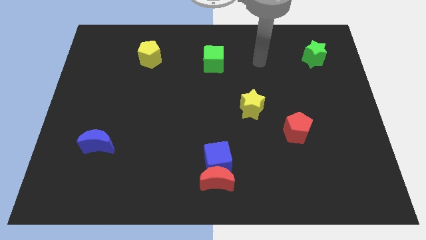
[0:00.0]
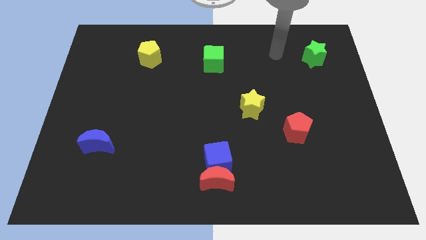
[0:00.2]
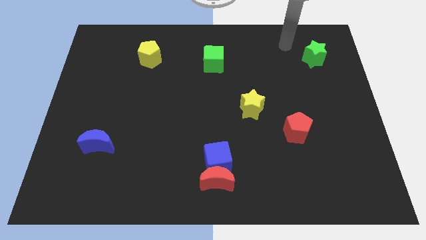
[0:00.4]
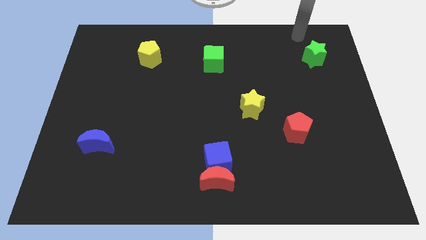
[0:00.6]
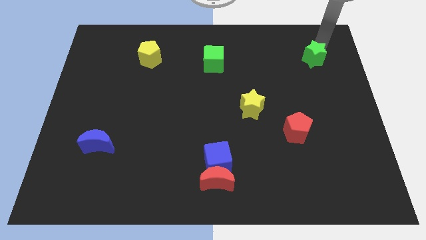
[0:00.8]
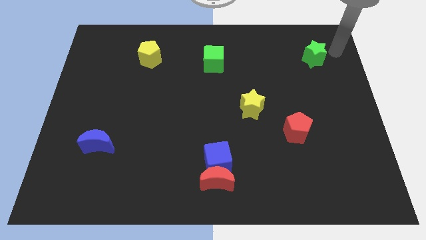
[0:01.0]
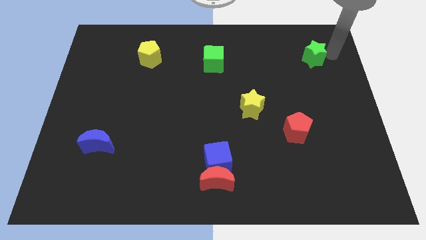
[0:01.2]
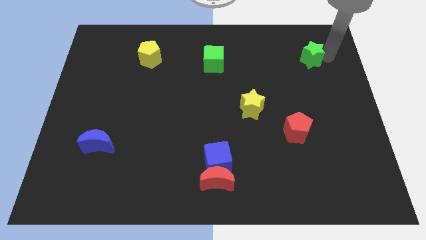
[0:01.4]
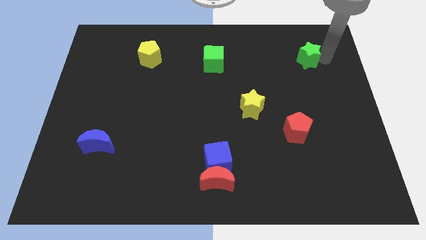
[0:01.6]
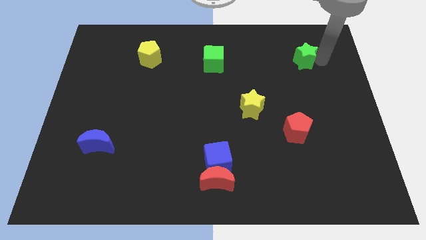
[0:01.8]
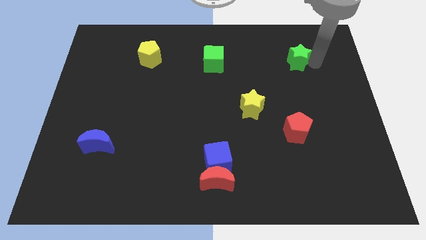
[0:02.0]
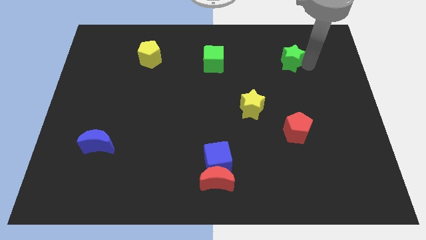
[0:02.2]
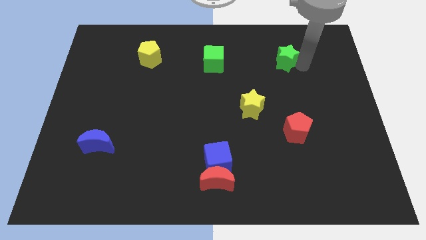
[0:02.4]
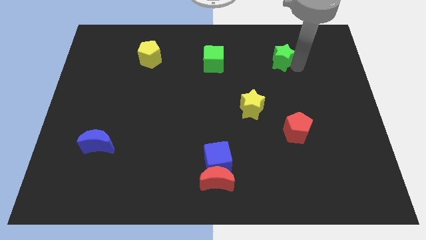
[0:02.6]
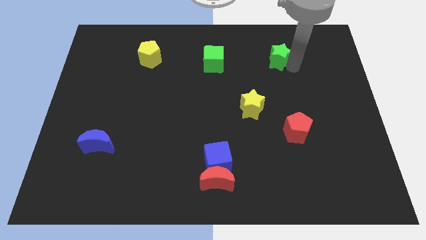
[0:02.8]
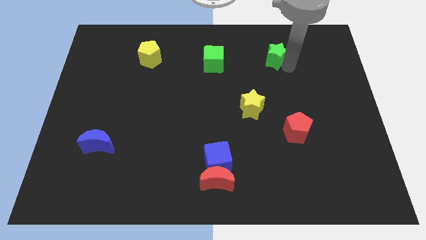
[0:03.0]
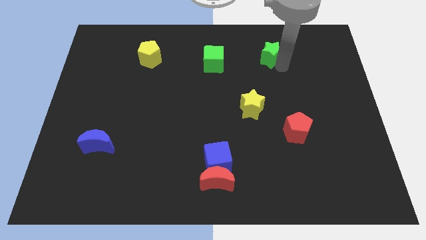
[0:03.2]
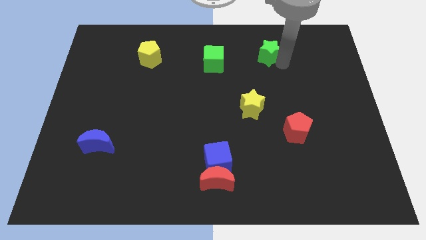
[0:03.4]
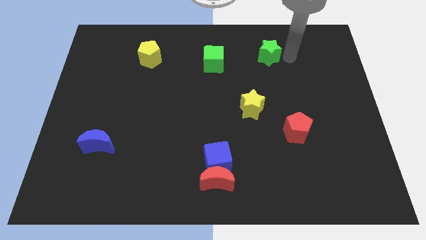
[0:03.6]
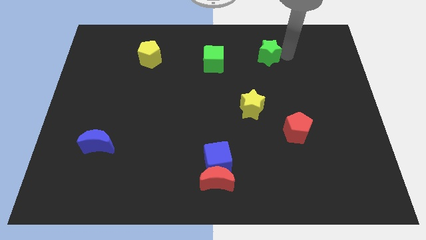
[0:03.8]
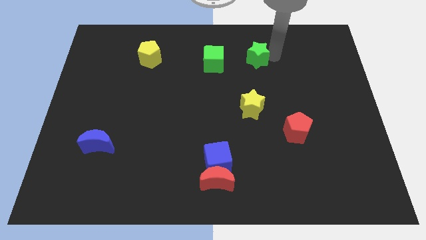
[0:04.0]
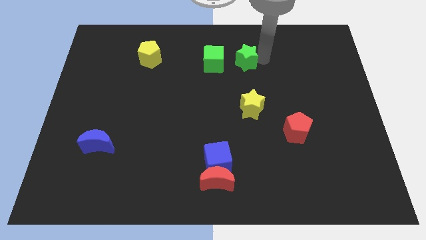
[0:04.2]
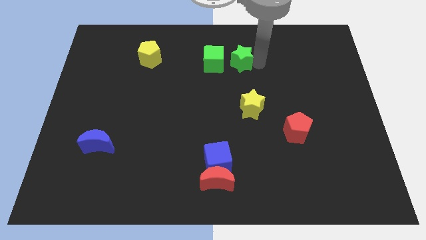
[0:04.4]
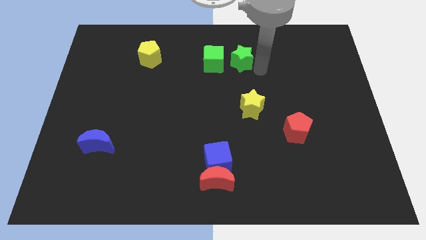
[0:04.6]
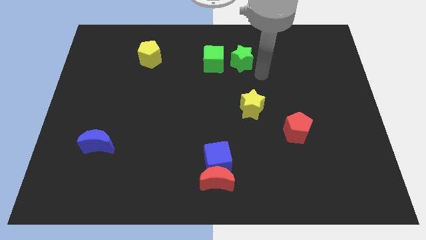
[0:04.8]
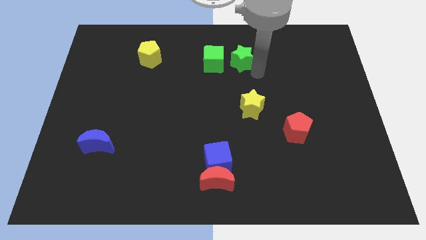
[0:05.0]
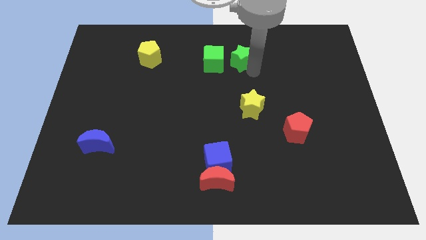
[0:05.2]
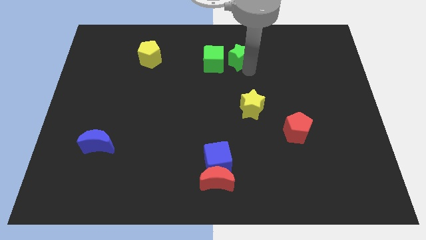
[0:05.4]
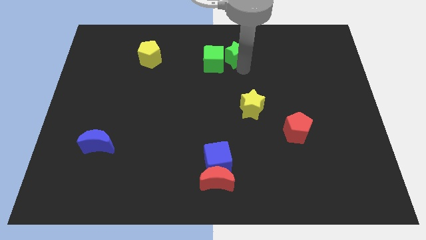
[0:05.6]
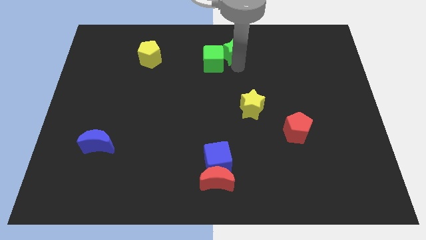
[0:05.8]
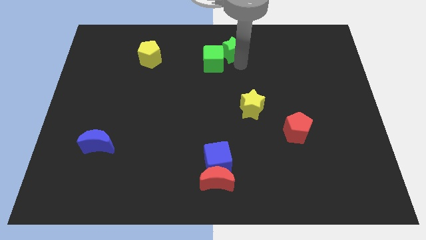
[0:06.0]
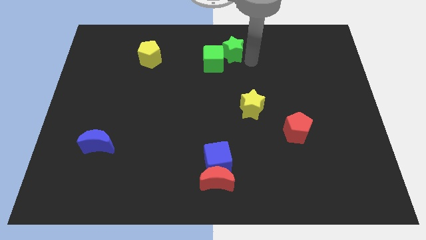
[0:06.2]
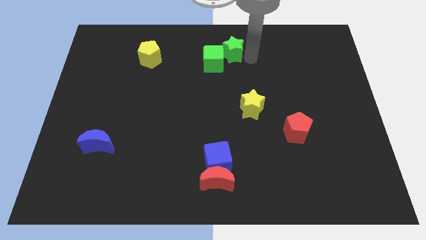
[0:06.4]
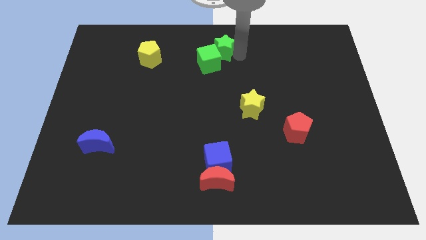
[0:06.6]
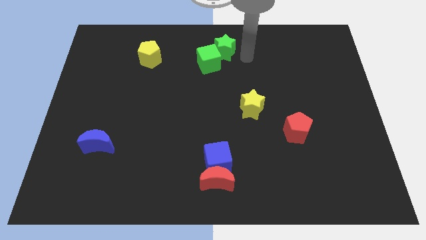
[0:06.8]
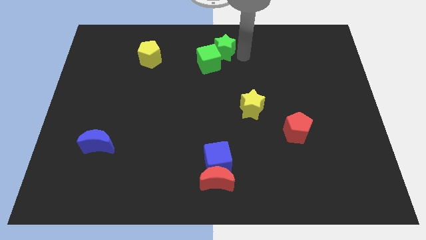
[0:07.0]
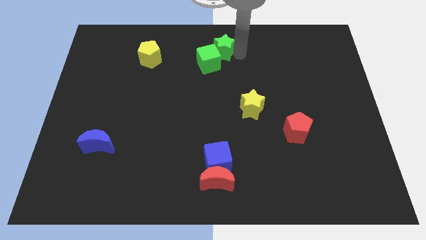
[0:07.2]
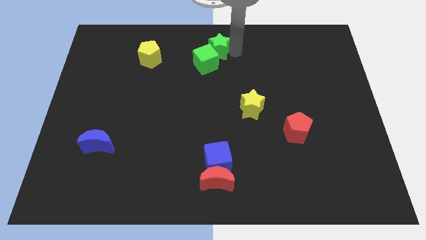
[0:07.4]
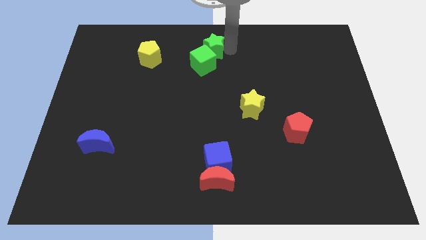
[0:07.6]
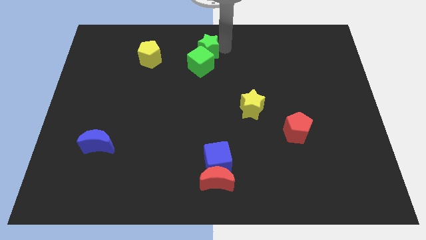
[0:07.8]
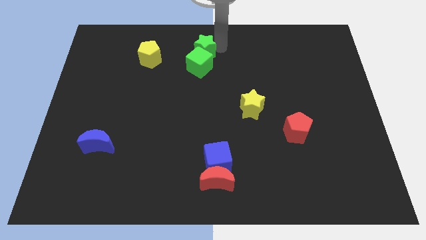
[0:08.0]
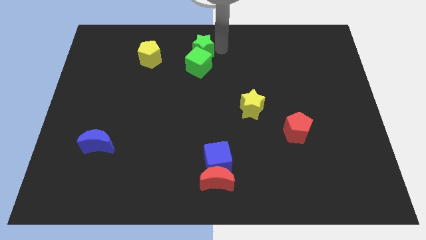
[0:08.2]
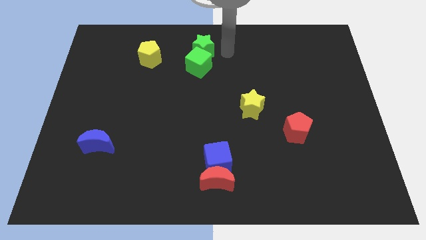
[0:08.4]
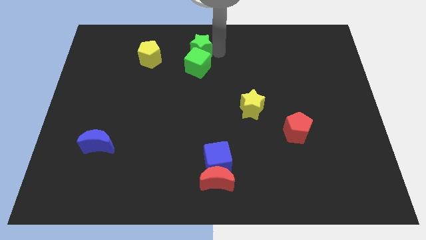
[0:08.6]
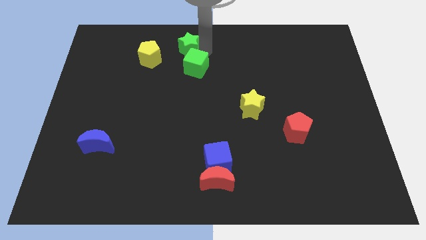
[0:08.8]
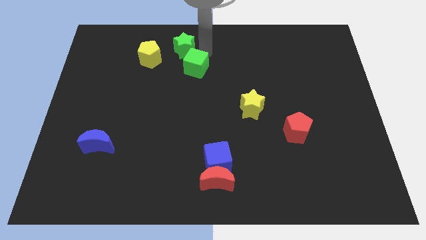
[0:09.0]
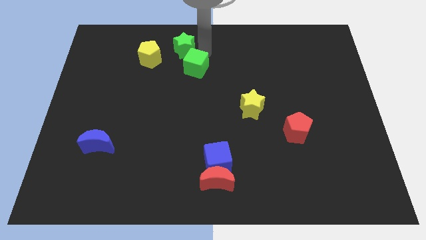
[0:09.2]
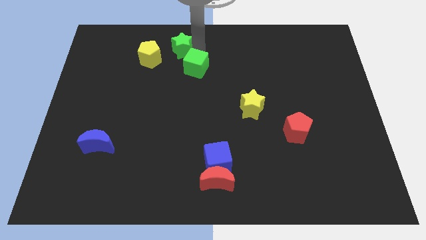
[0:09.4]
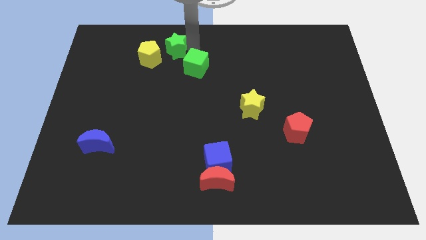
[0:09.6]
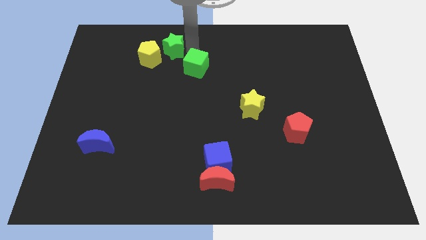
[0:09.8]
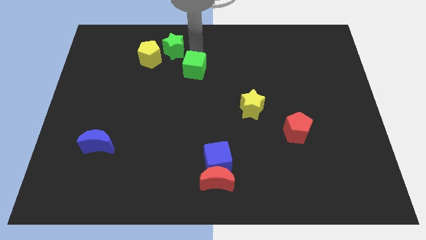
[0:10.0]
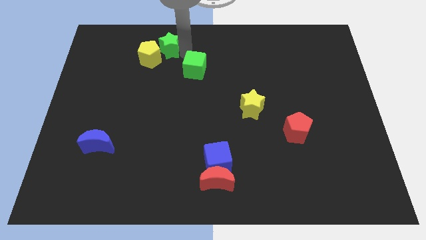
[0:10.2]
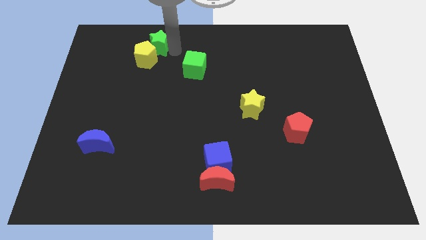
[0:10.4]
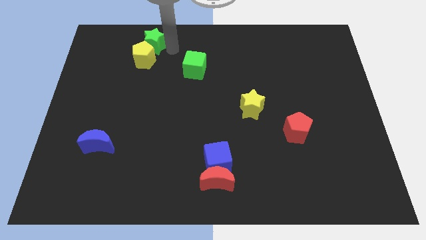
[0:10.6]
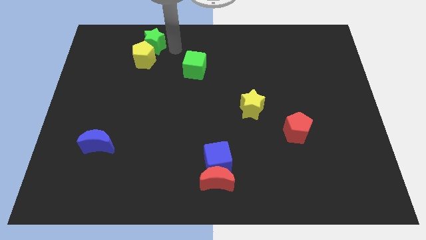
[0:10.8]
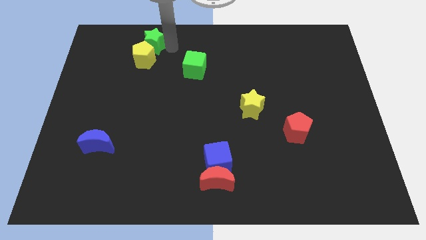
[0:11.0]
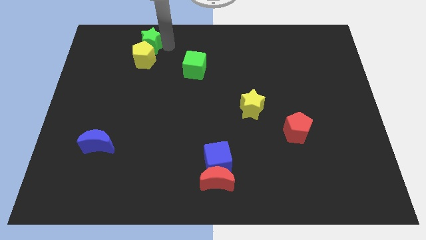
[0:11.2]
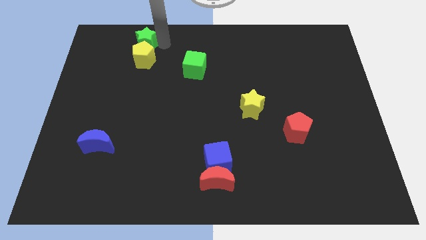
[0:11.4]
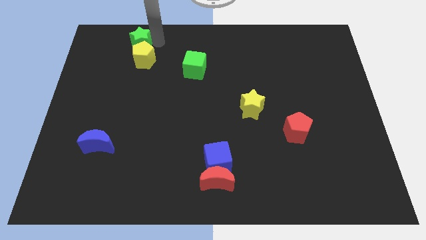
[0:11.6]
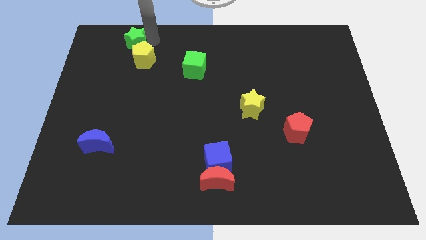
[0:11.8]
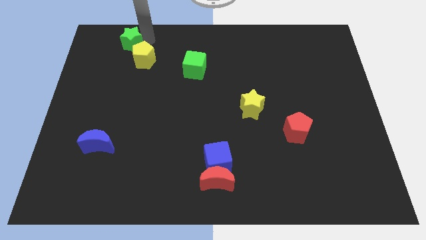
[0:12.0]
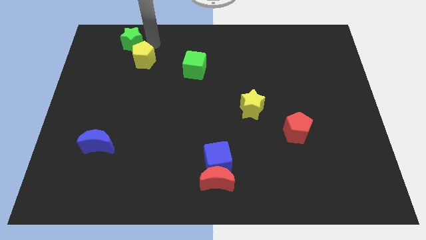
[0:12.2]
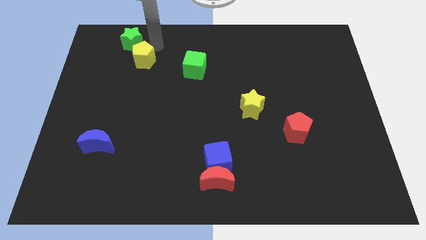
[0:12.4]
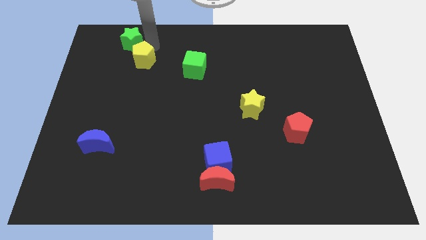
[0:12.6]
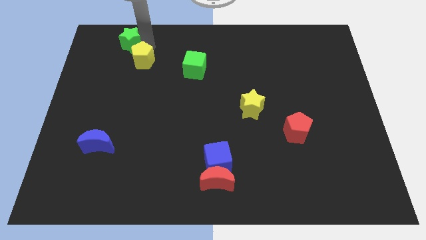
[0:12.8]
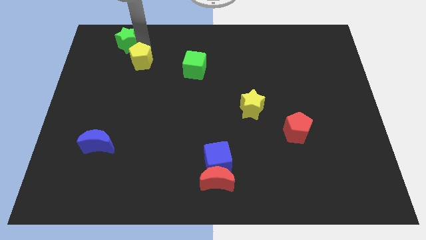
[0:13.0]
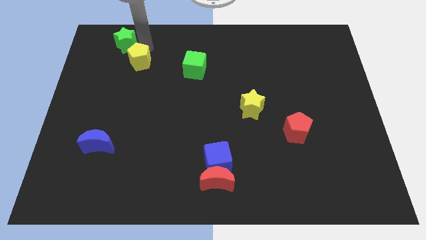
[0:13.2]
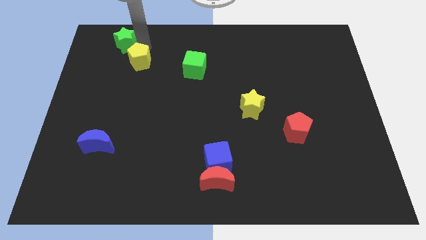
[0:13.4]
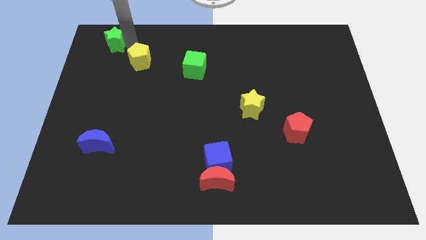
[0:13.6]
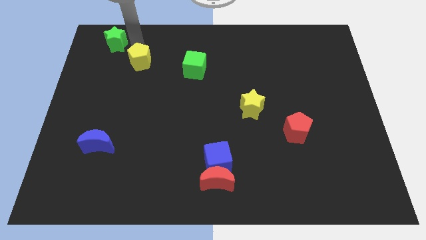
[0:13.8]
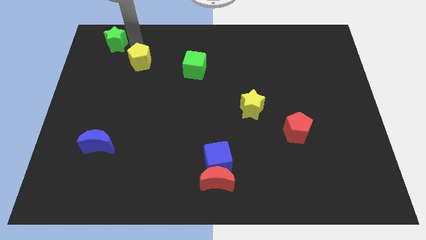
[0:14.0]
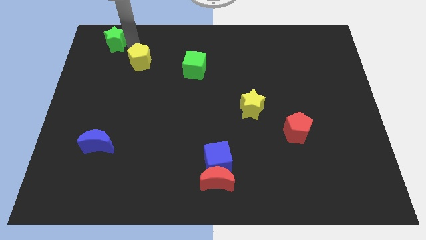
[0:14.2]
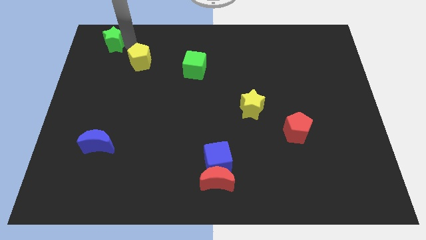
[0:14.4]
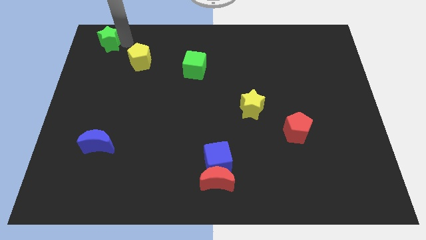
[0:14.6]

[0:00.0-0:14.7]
put the green star to the top left corner
